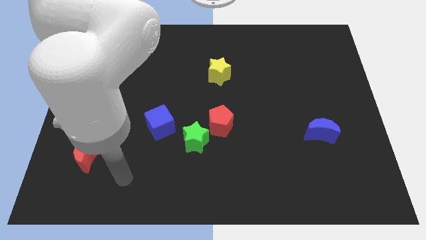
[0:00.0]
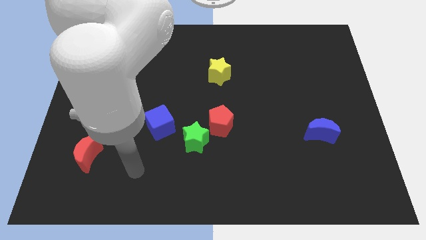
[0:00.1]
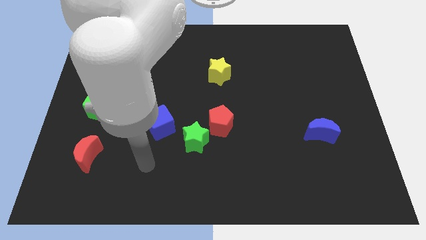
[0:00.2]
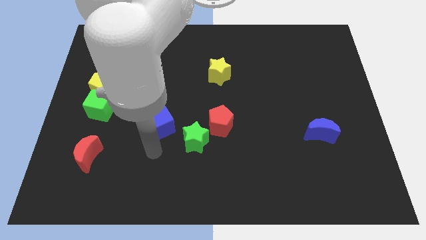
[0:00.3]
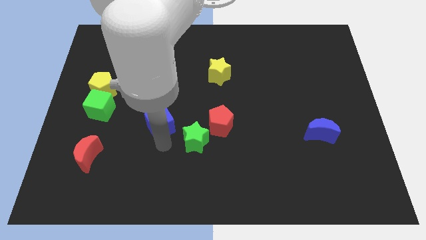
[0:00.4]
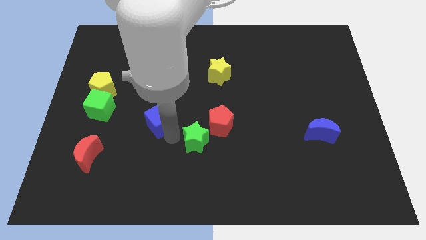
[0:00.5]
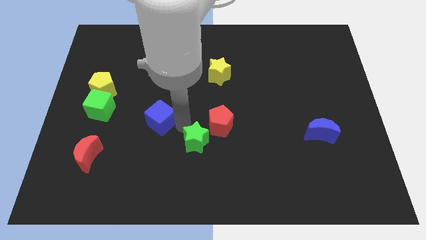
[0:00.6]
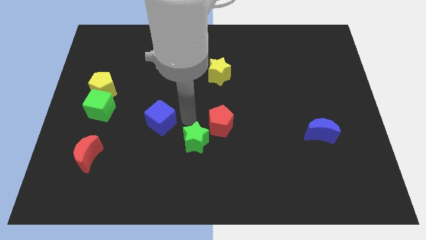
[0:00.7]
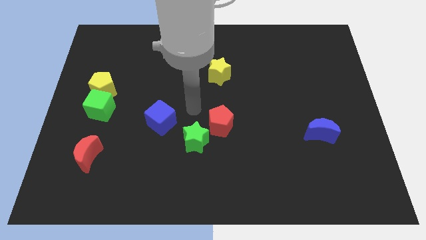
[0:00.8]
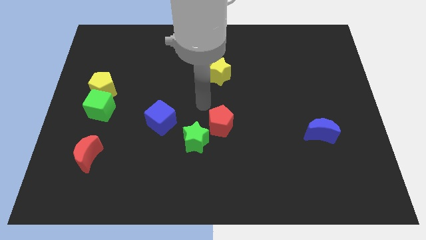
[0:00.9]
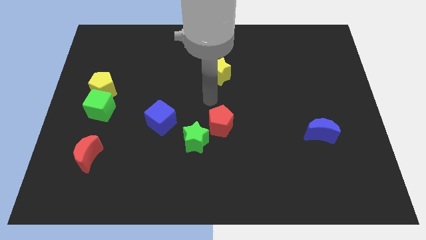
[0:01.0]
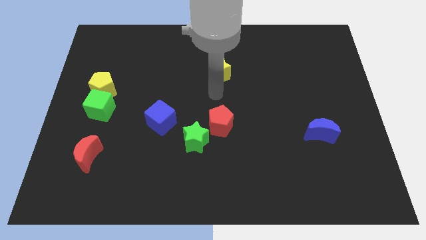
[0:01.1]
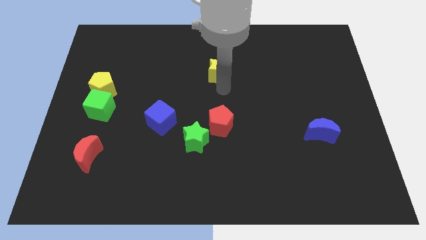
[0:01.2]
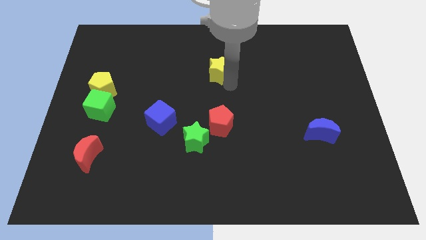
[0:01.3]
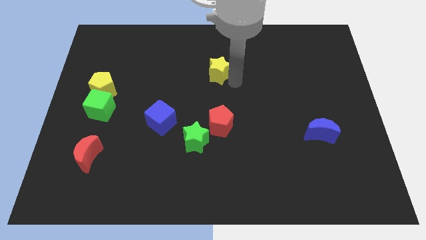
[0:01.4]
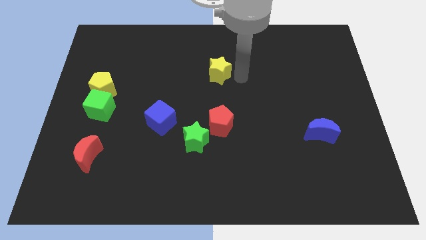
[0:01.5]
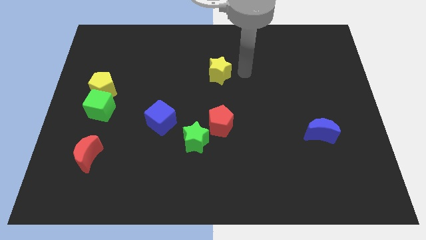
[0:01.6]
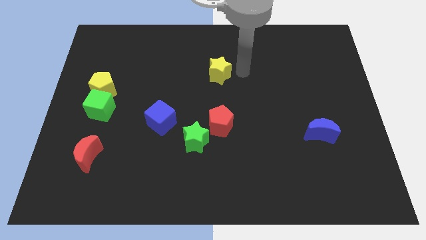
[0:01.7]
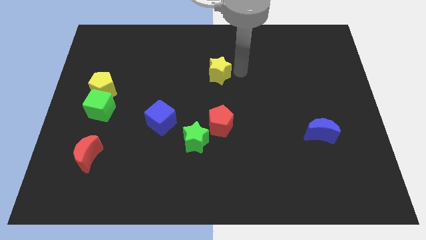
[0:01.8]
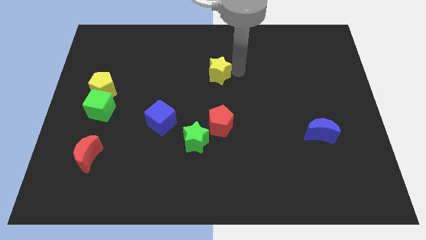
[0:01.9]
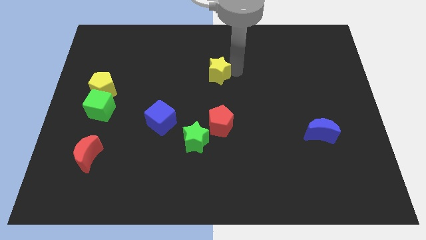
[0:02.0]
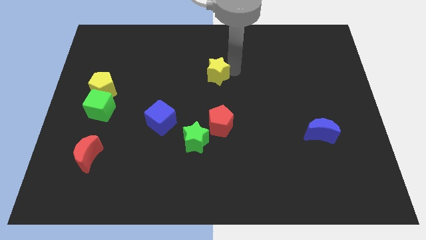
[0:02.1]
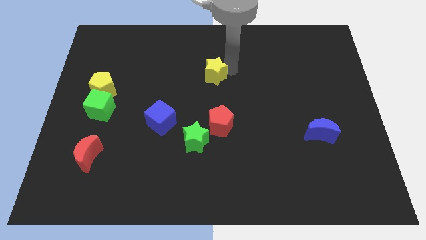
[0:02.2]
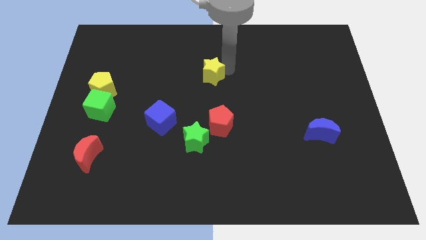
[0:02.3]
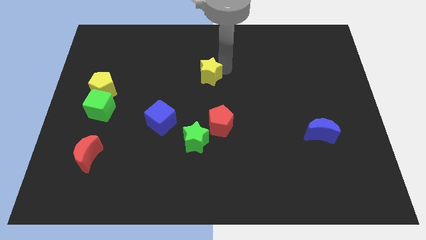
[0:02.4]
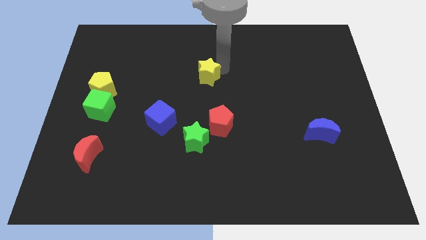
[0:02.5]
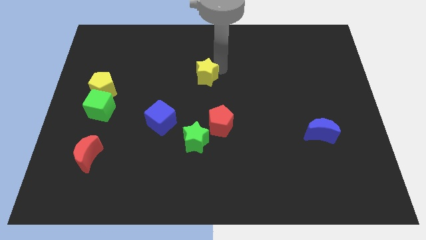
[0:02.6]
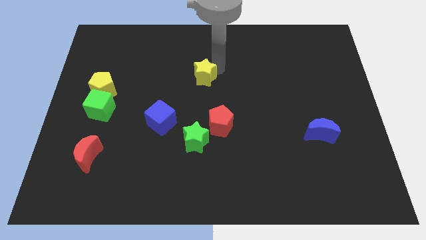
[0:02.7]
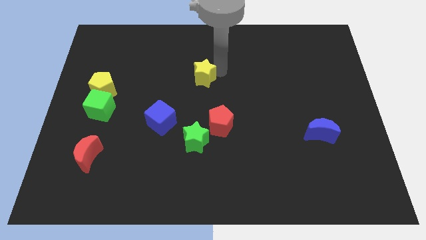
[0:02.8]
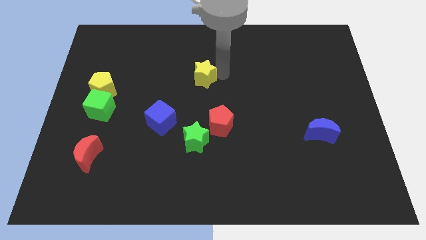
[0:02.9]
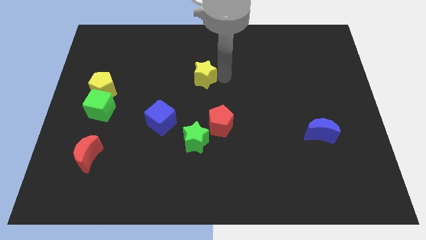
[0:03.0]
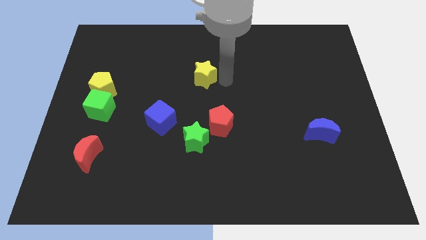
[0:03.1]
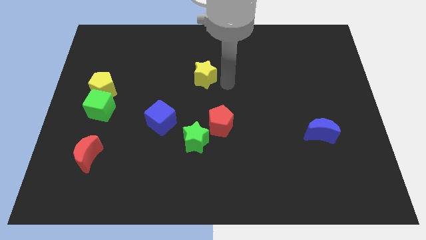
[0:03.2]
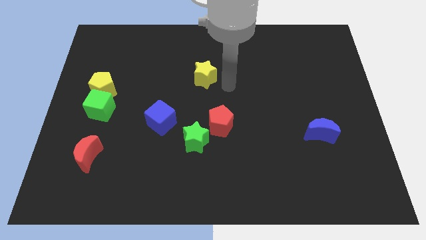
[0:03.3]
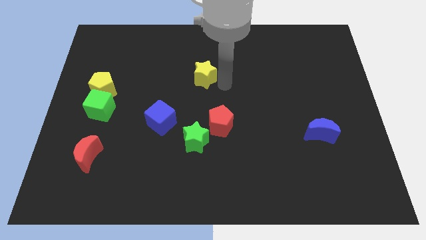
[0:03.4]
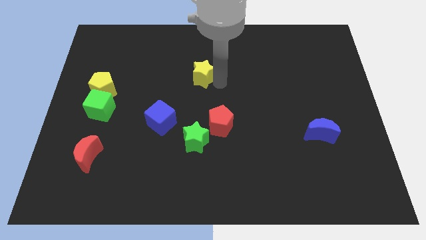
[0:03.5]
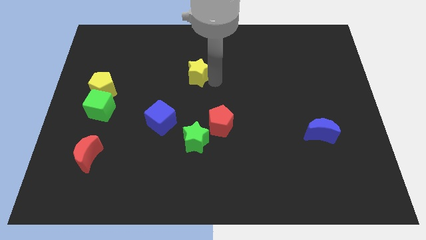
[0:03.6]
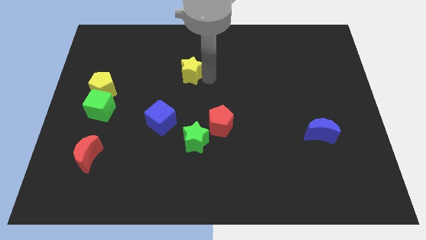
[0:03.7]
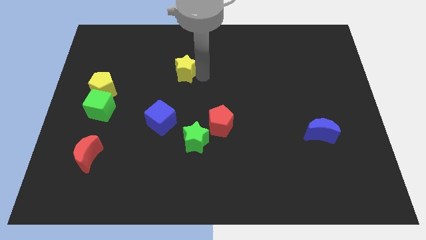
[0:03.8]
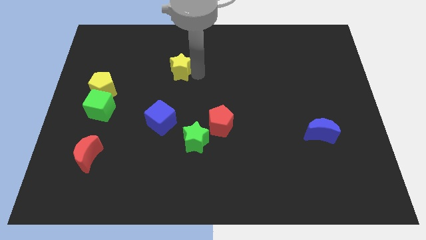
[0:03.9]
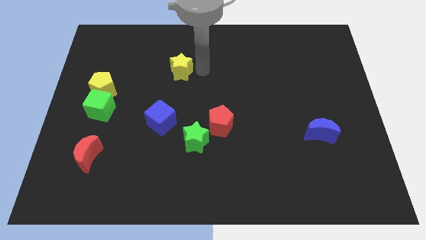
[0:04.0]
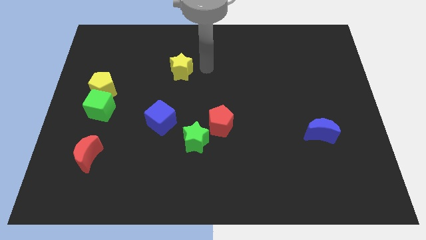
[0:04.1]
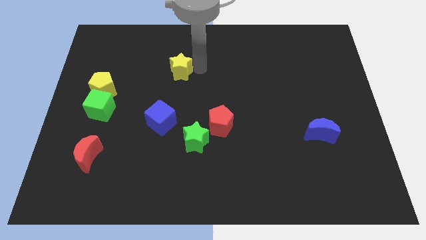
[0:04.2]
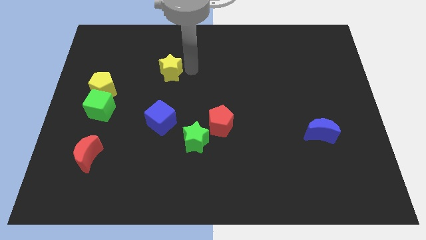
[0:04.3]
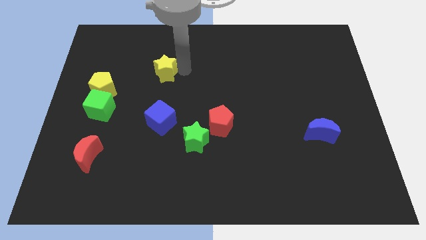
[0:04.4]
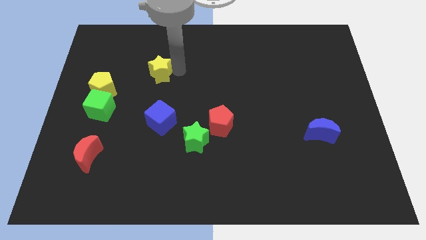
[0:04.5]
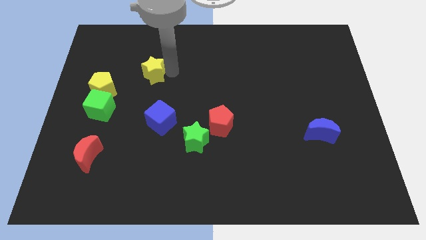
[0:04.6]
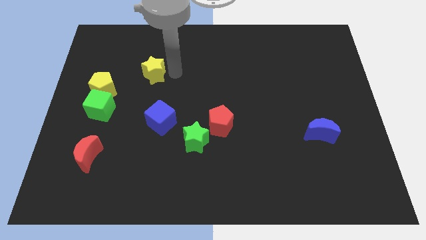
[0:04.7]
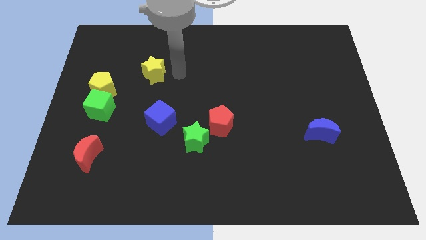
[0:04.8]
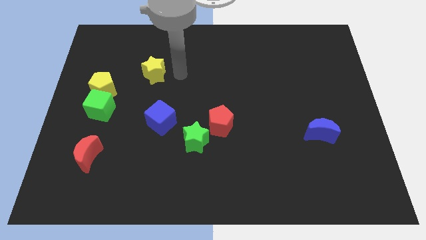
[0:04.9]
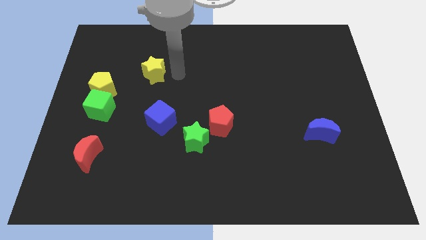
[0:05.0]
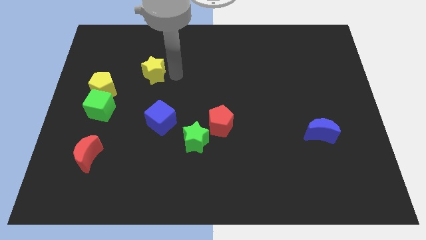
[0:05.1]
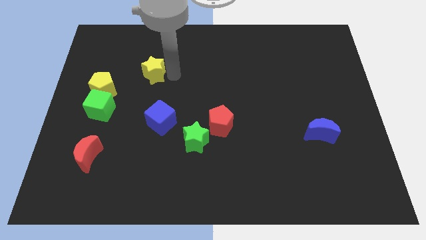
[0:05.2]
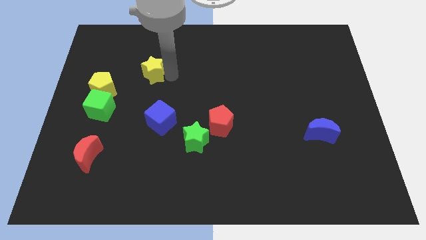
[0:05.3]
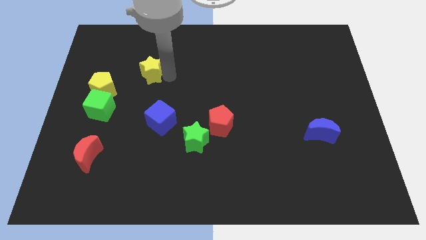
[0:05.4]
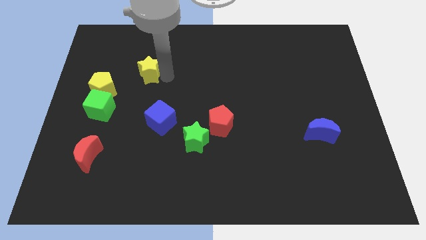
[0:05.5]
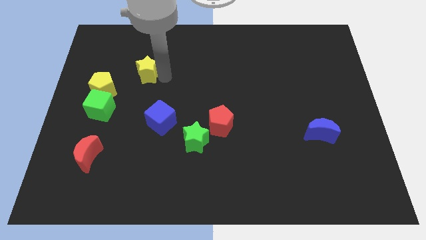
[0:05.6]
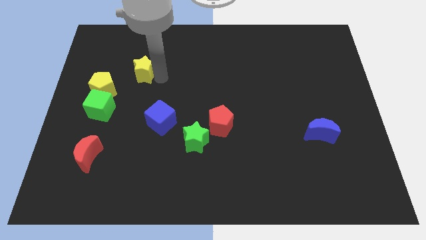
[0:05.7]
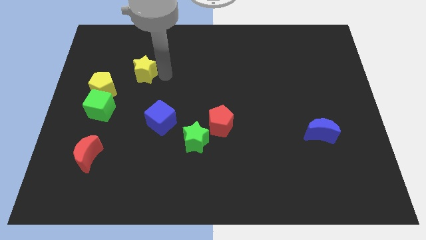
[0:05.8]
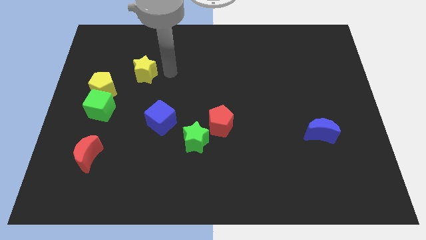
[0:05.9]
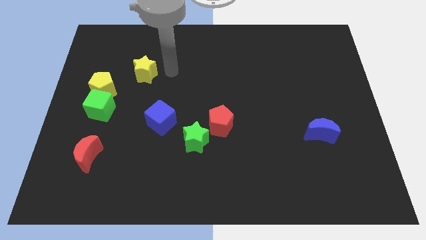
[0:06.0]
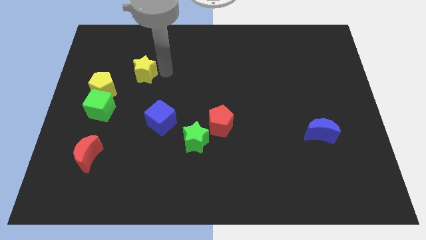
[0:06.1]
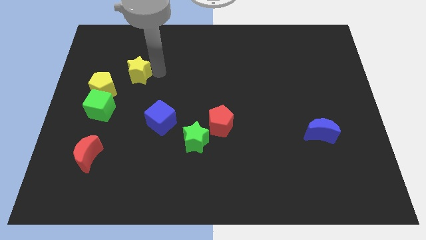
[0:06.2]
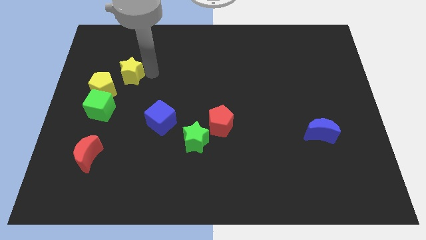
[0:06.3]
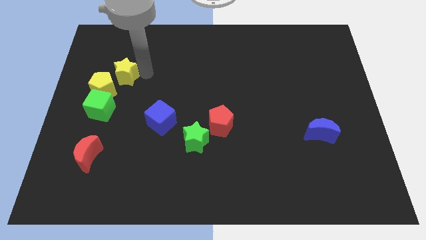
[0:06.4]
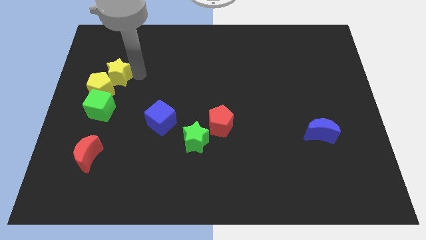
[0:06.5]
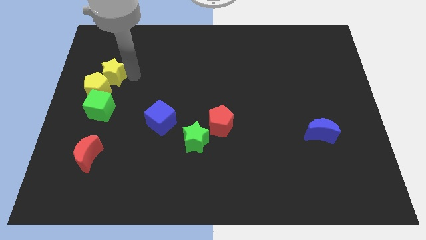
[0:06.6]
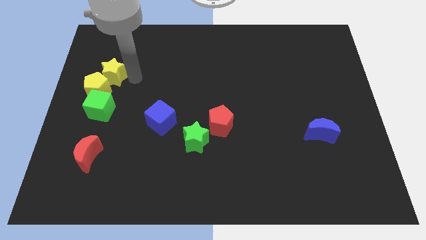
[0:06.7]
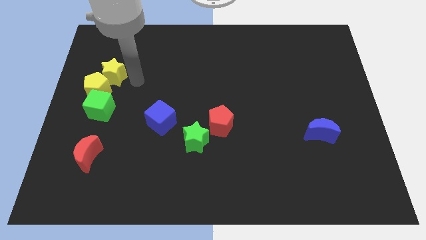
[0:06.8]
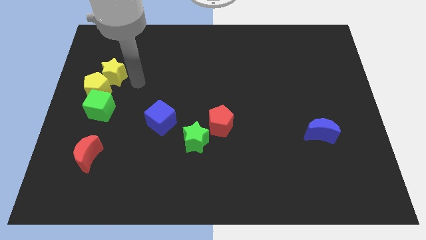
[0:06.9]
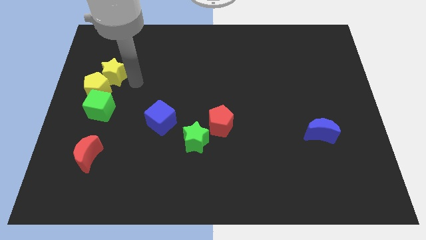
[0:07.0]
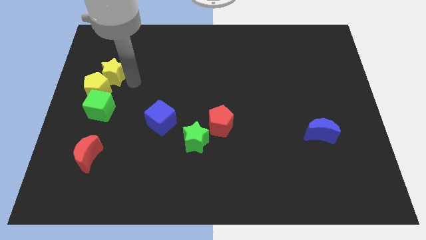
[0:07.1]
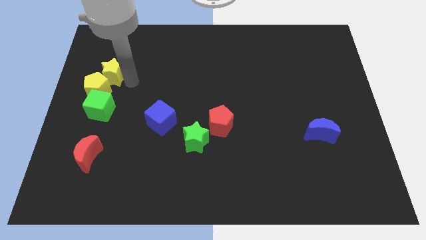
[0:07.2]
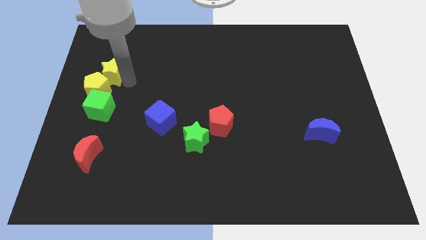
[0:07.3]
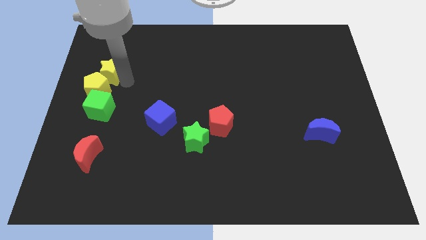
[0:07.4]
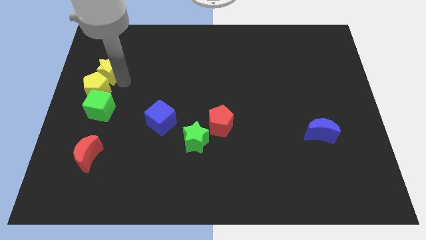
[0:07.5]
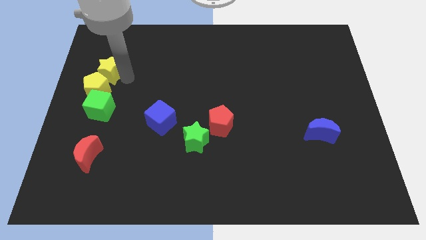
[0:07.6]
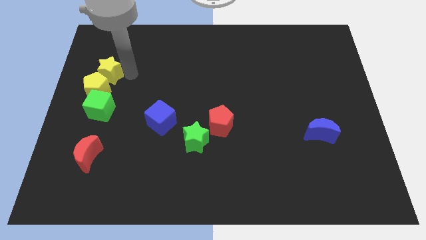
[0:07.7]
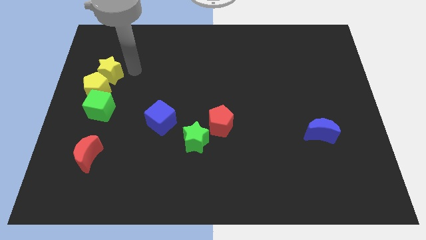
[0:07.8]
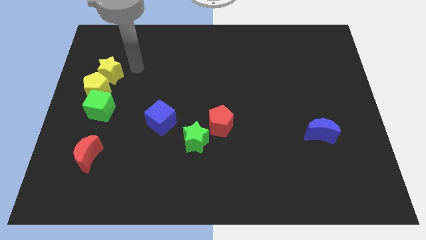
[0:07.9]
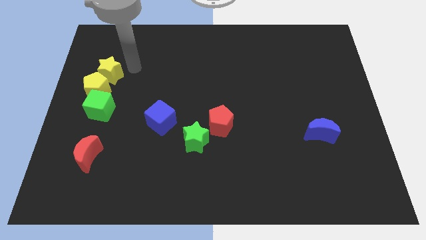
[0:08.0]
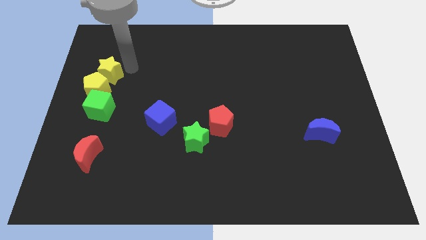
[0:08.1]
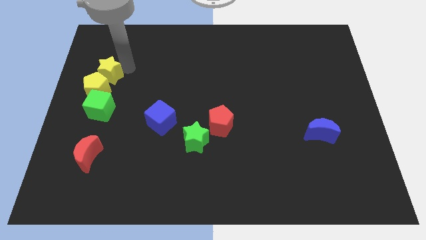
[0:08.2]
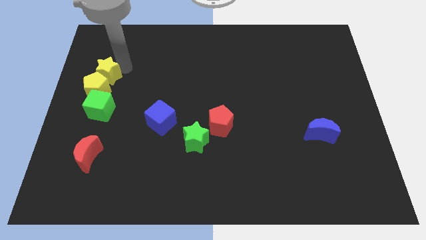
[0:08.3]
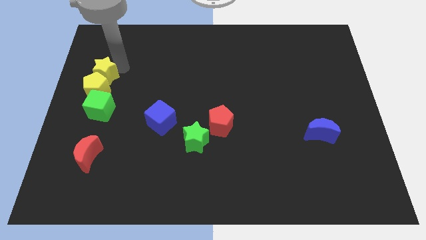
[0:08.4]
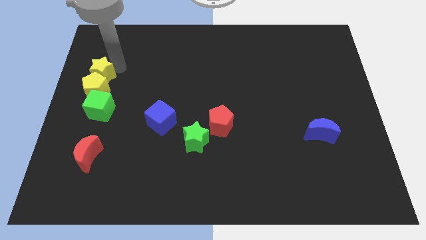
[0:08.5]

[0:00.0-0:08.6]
slide the yellow star to the left side
